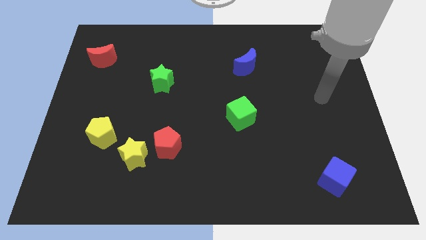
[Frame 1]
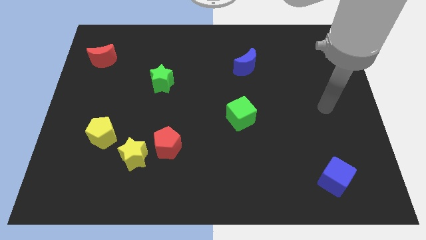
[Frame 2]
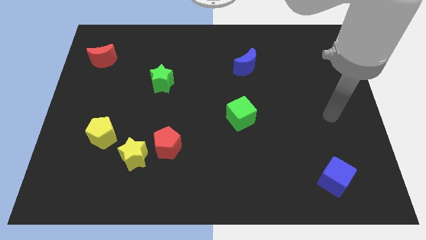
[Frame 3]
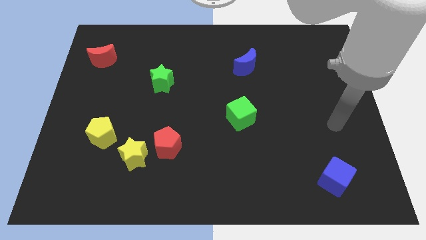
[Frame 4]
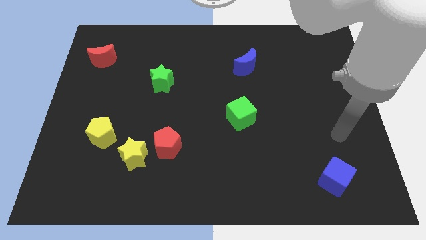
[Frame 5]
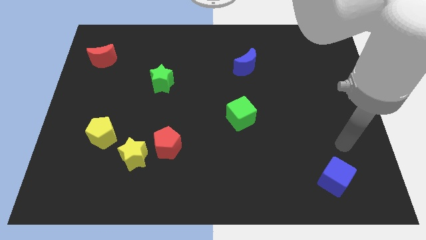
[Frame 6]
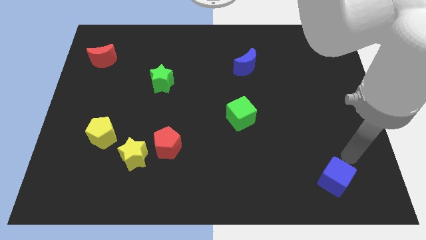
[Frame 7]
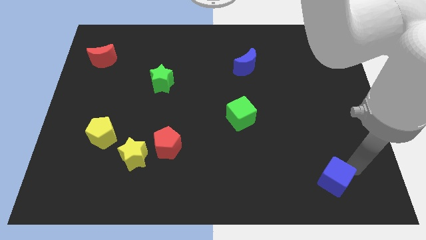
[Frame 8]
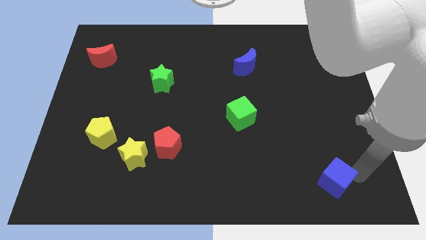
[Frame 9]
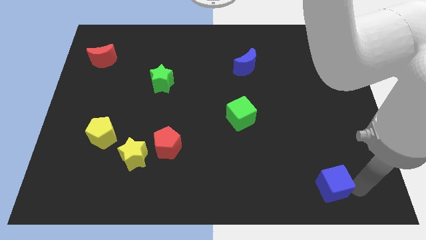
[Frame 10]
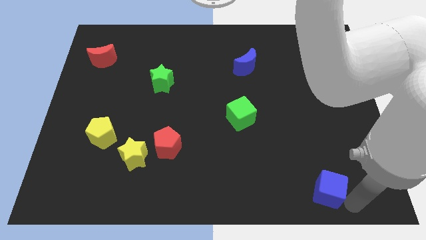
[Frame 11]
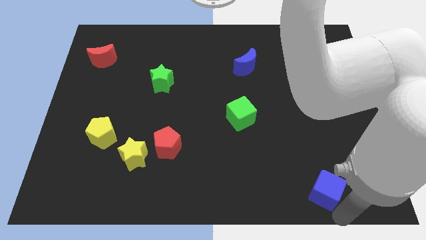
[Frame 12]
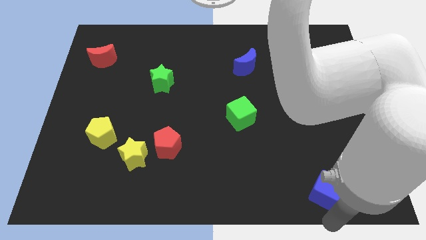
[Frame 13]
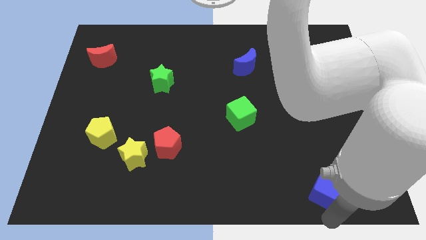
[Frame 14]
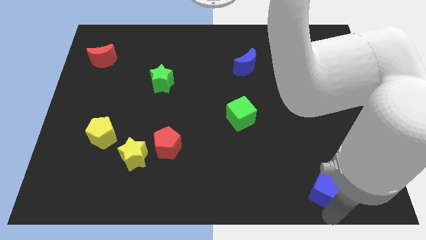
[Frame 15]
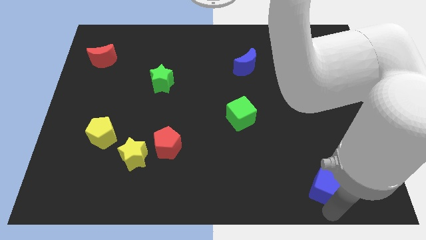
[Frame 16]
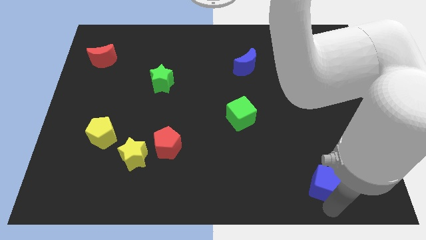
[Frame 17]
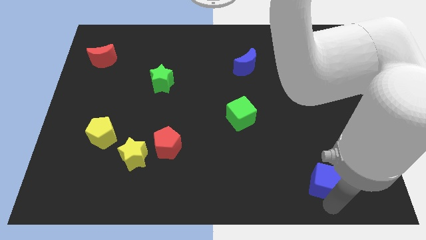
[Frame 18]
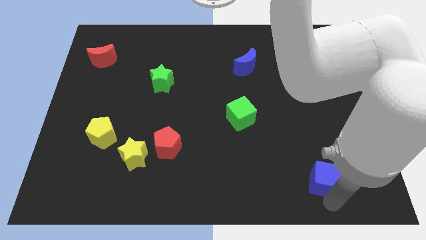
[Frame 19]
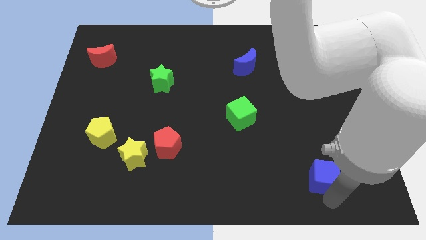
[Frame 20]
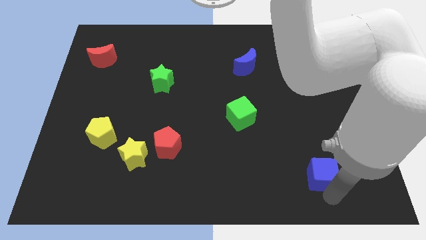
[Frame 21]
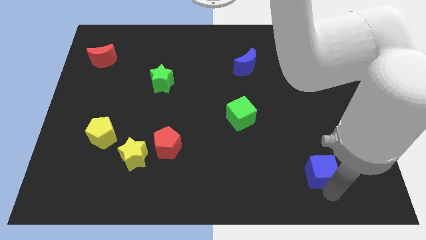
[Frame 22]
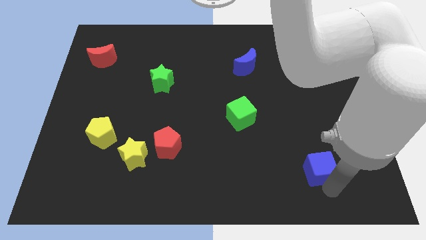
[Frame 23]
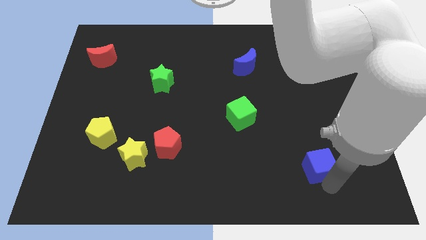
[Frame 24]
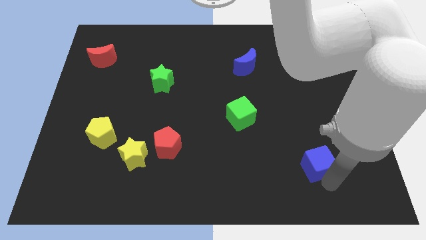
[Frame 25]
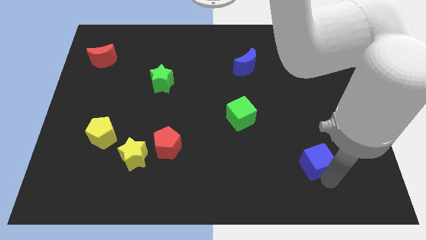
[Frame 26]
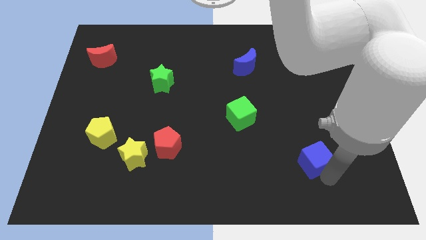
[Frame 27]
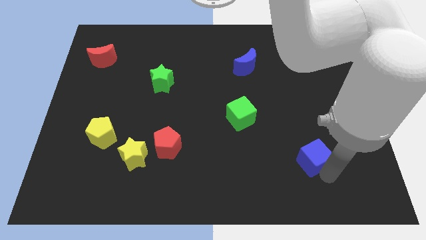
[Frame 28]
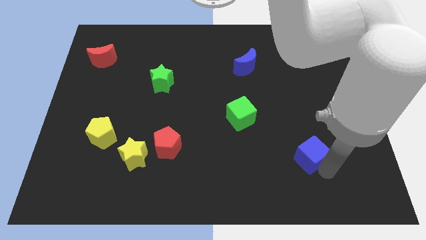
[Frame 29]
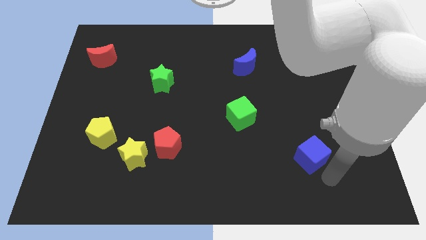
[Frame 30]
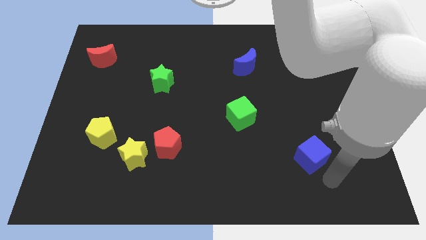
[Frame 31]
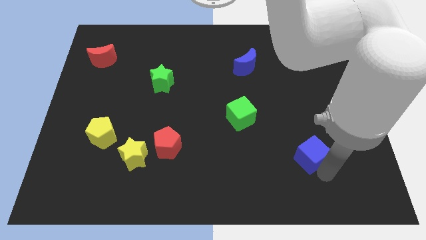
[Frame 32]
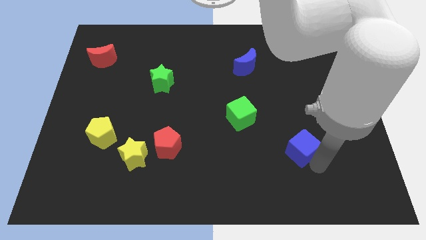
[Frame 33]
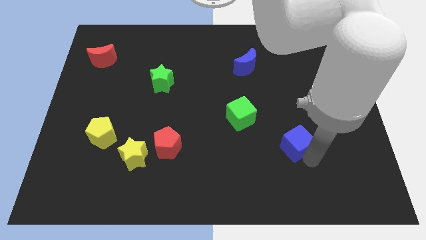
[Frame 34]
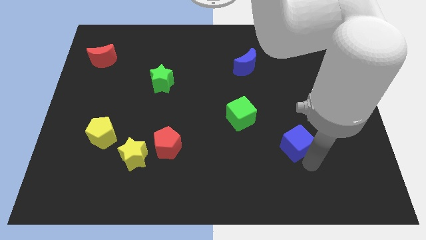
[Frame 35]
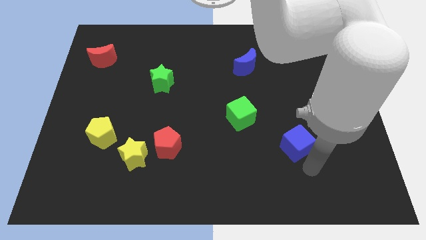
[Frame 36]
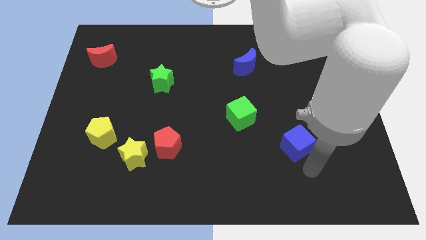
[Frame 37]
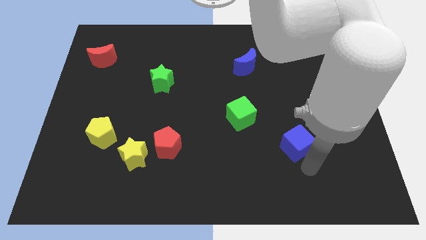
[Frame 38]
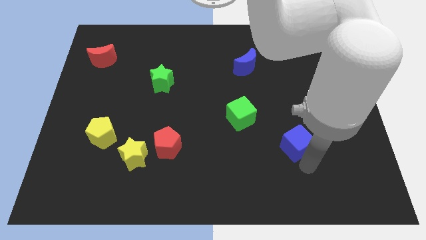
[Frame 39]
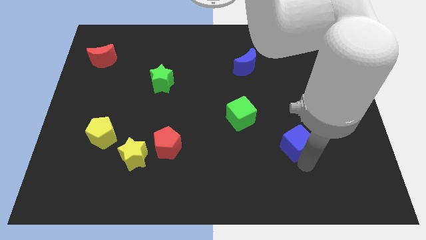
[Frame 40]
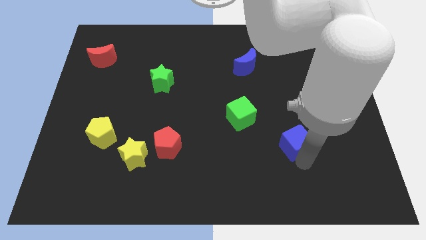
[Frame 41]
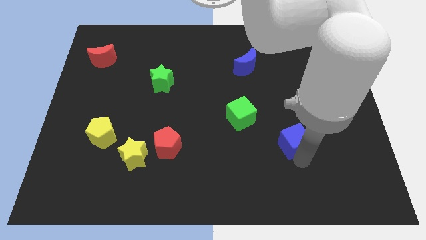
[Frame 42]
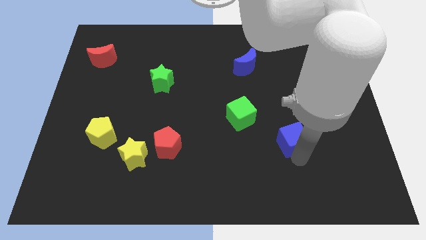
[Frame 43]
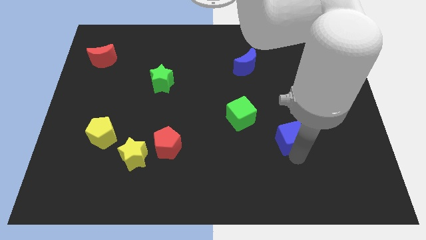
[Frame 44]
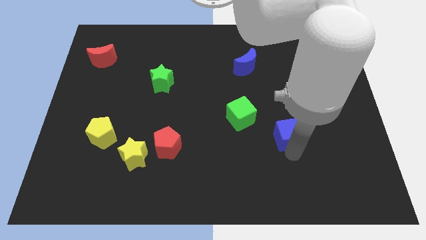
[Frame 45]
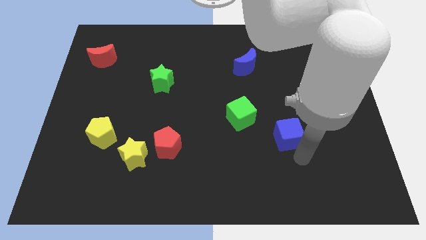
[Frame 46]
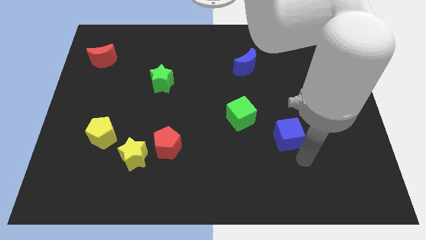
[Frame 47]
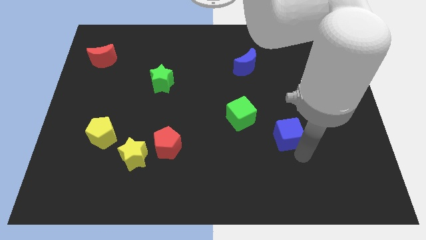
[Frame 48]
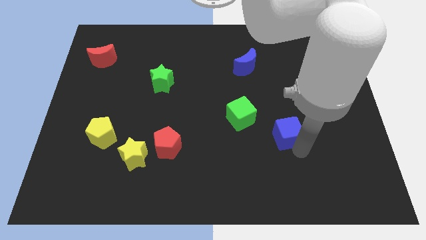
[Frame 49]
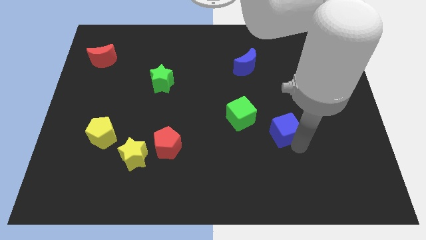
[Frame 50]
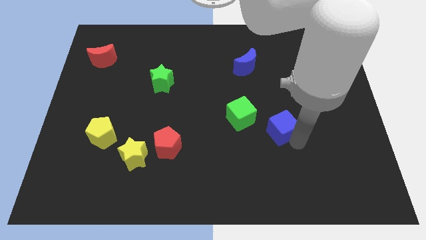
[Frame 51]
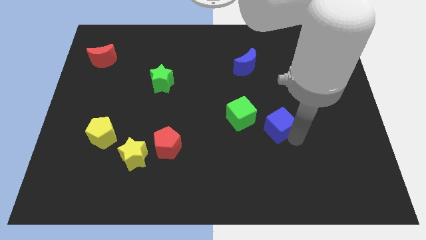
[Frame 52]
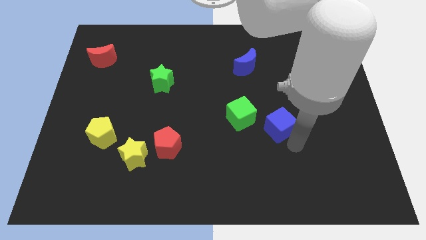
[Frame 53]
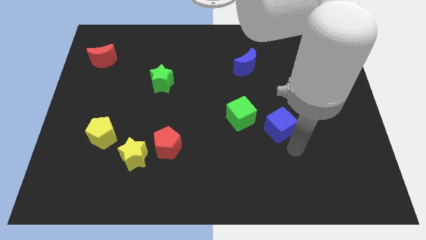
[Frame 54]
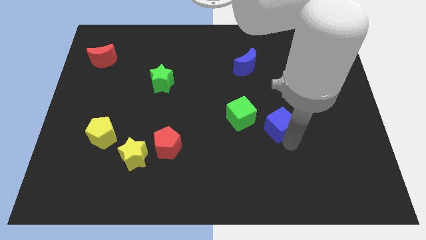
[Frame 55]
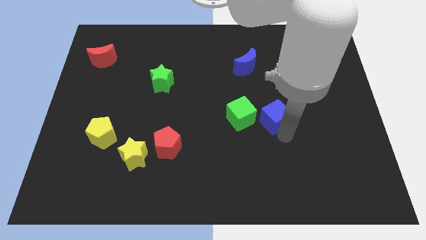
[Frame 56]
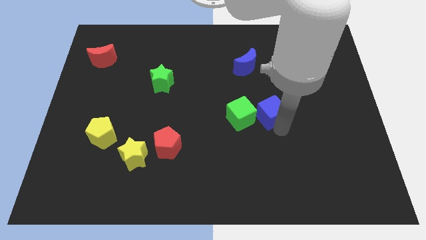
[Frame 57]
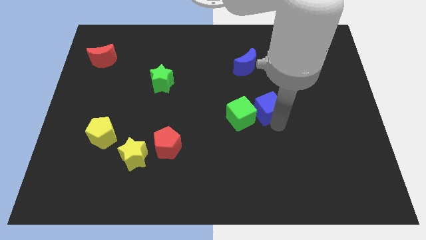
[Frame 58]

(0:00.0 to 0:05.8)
slide the blue cube upwards and to the left

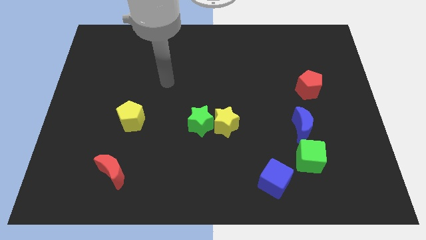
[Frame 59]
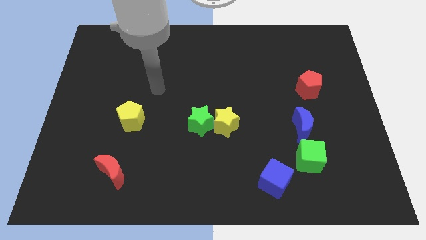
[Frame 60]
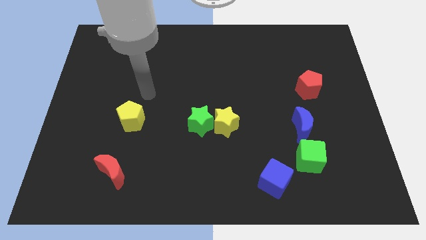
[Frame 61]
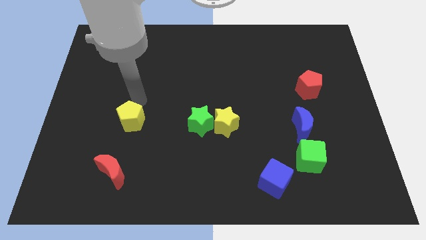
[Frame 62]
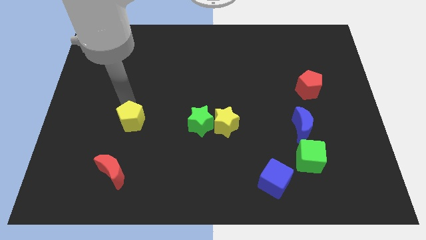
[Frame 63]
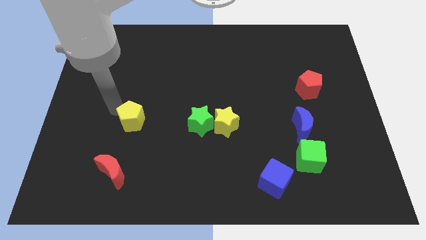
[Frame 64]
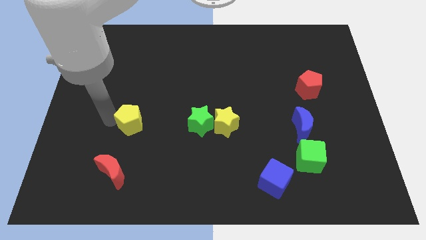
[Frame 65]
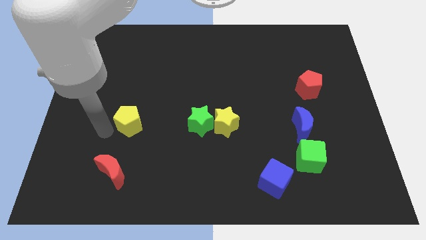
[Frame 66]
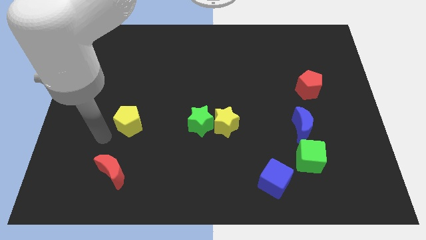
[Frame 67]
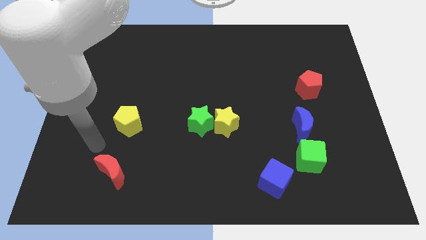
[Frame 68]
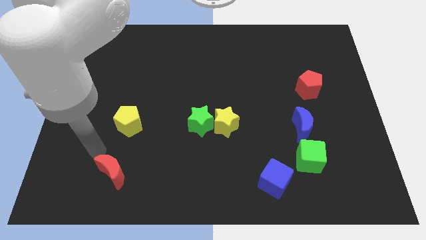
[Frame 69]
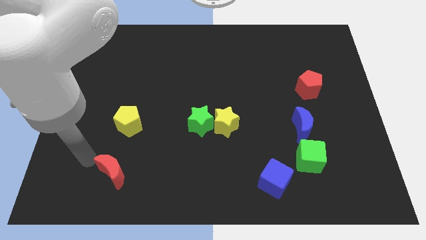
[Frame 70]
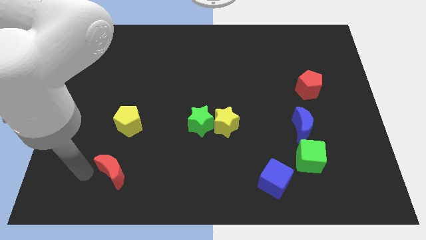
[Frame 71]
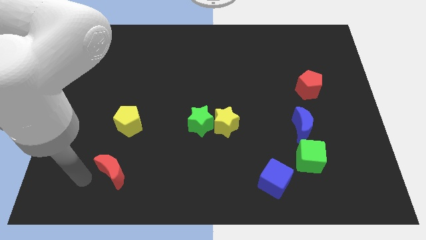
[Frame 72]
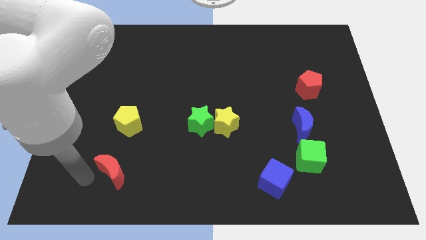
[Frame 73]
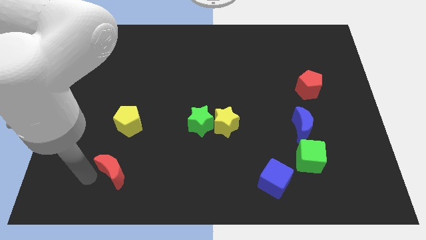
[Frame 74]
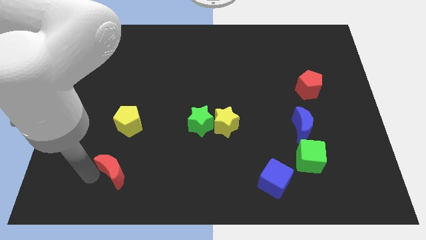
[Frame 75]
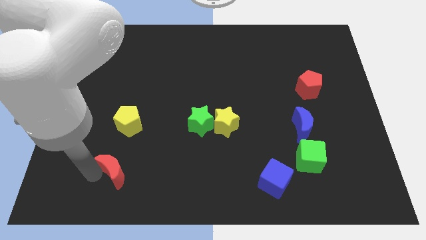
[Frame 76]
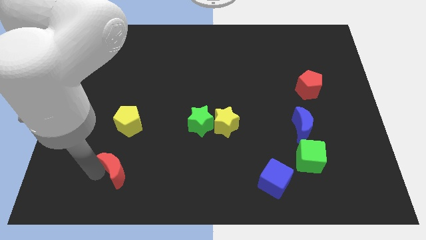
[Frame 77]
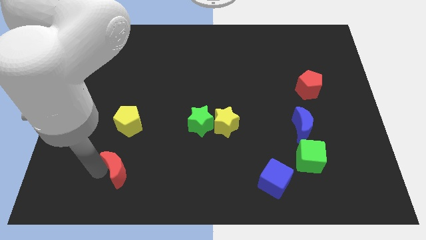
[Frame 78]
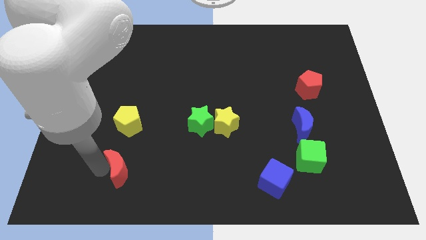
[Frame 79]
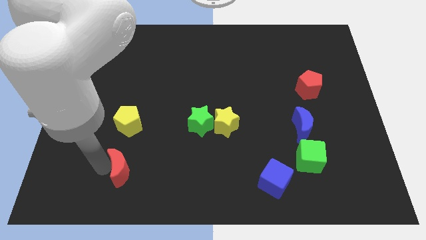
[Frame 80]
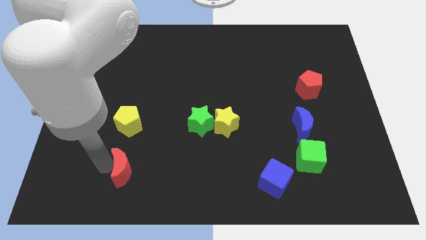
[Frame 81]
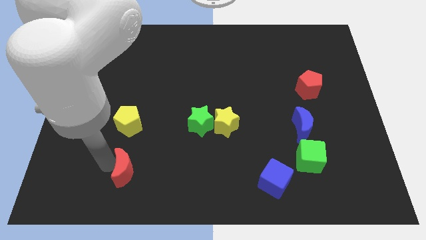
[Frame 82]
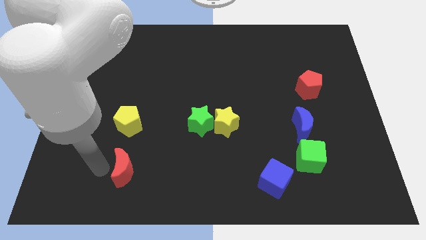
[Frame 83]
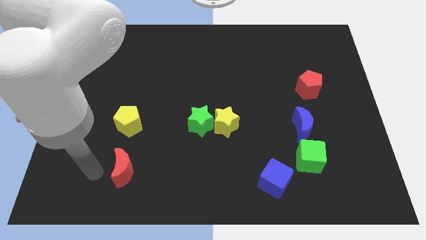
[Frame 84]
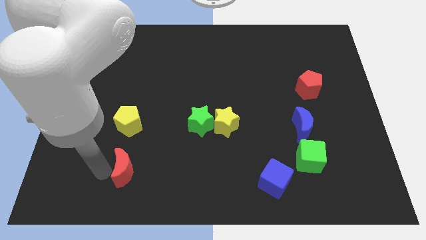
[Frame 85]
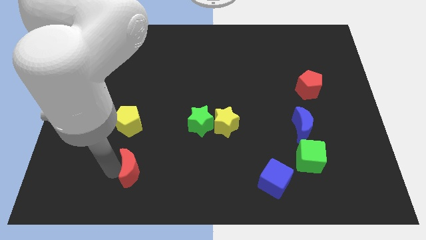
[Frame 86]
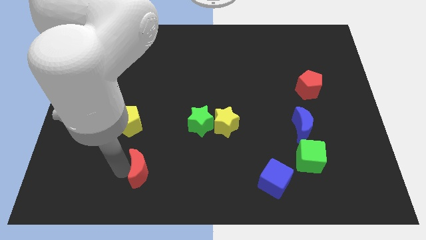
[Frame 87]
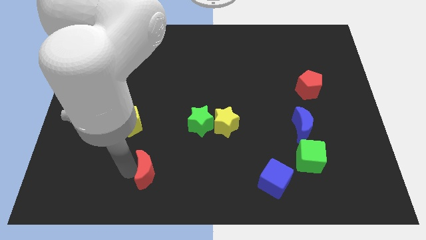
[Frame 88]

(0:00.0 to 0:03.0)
slide the red moon to the right somewhat
